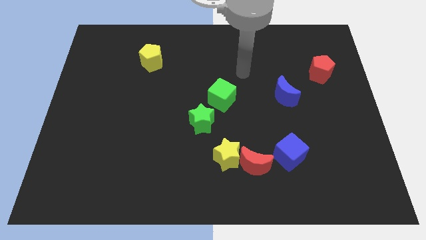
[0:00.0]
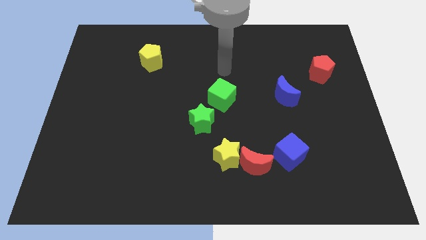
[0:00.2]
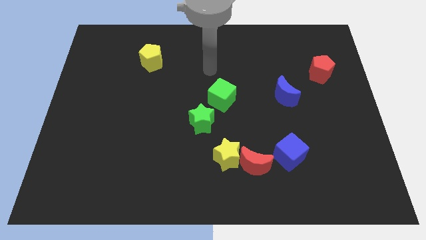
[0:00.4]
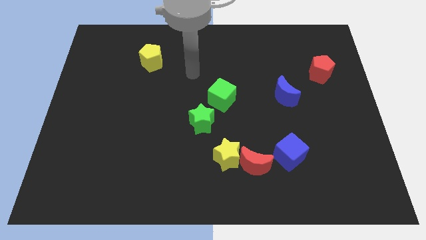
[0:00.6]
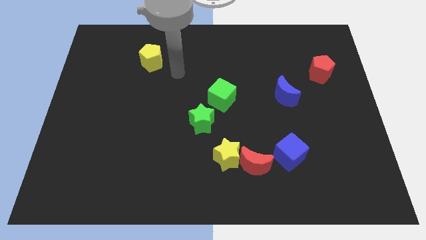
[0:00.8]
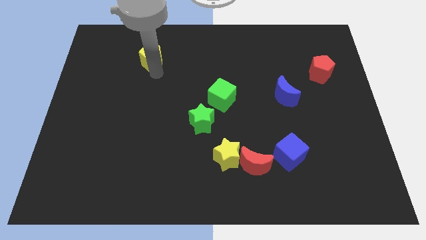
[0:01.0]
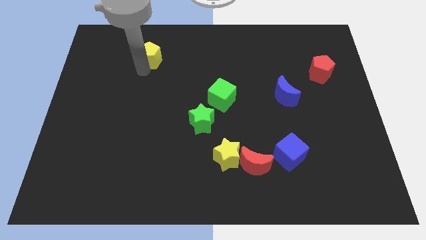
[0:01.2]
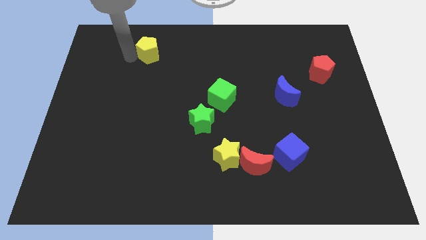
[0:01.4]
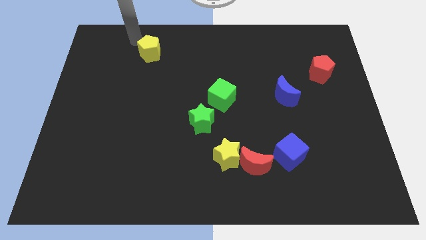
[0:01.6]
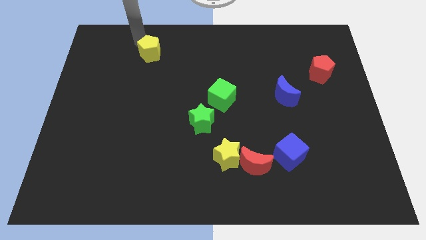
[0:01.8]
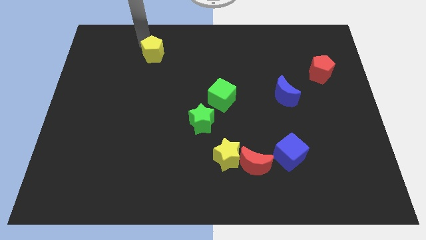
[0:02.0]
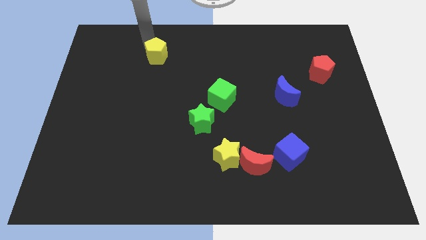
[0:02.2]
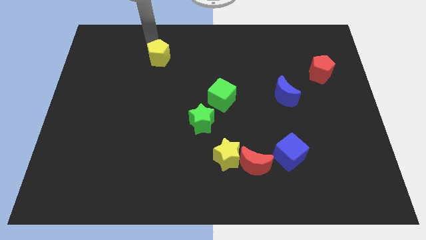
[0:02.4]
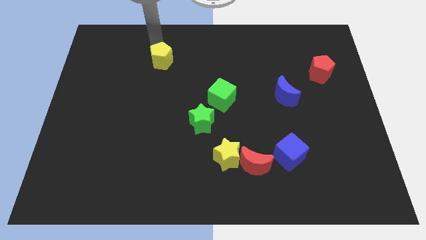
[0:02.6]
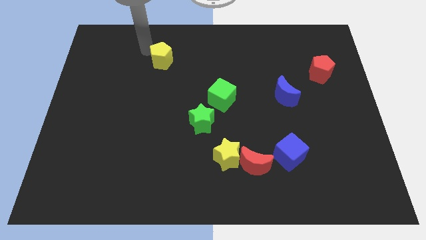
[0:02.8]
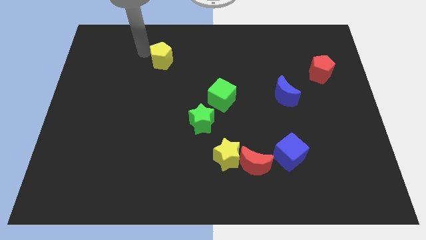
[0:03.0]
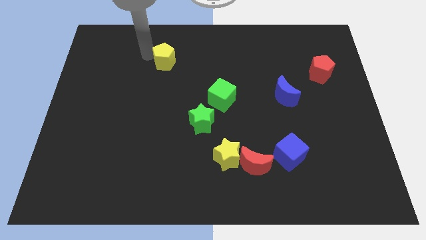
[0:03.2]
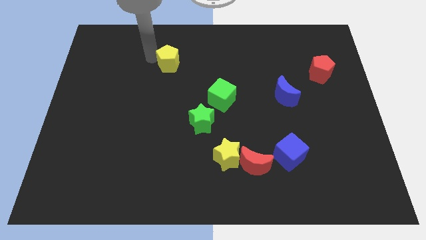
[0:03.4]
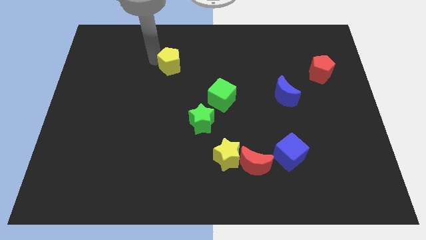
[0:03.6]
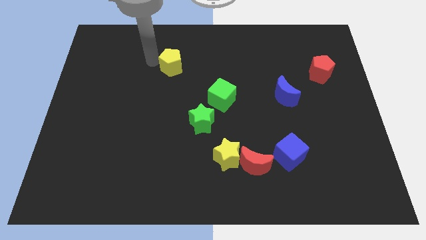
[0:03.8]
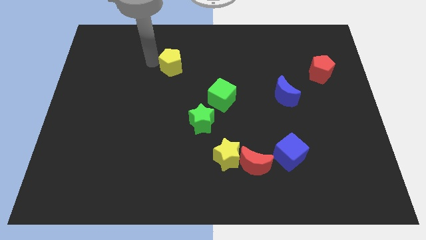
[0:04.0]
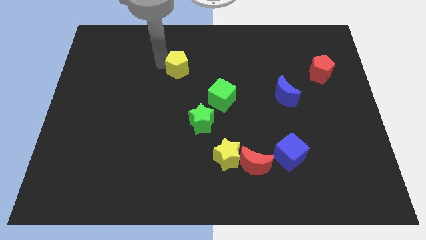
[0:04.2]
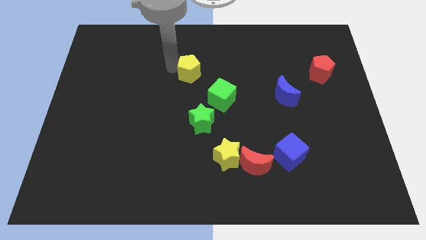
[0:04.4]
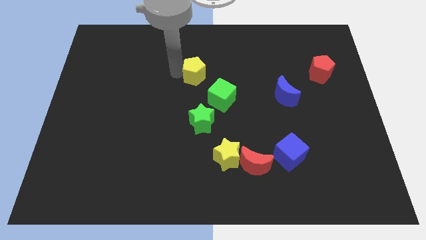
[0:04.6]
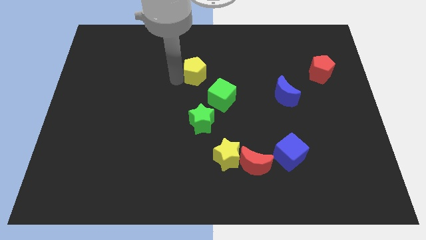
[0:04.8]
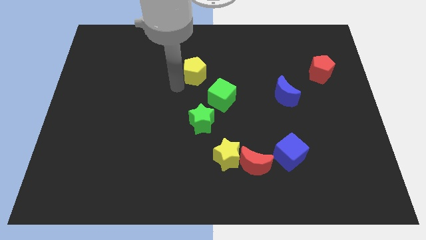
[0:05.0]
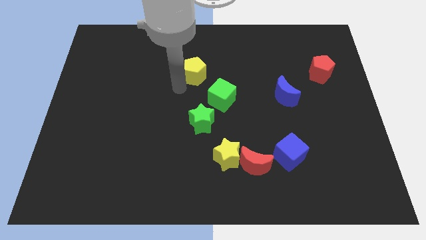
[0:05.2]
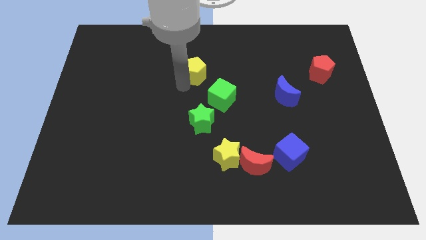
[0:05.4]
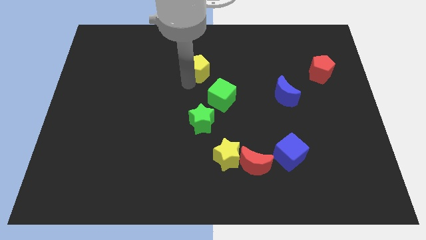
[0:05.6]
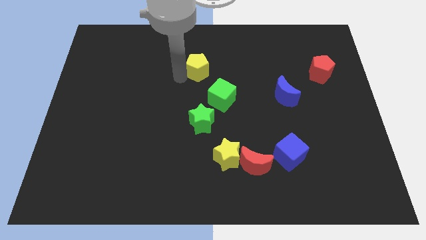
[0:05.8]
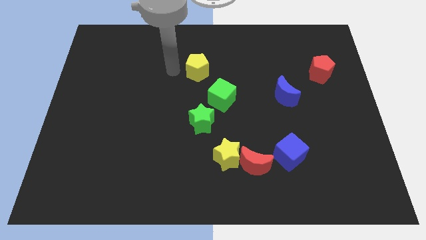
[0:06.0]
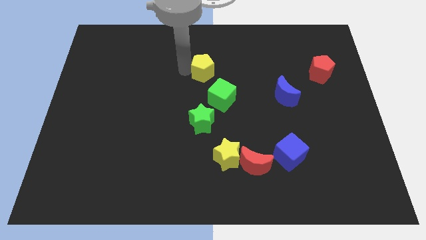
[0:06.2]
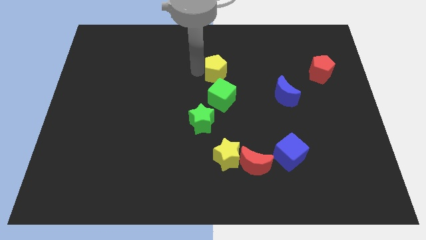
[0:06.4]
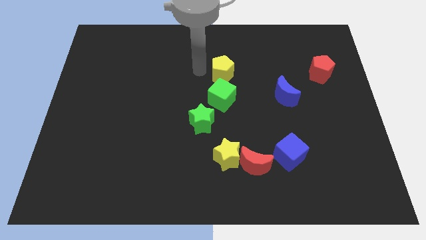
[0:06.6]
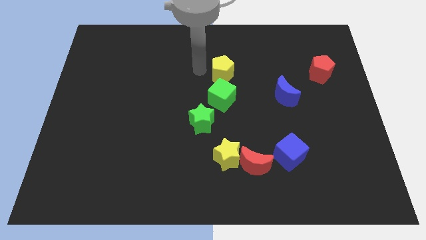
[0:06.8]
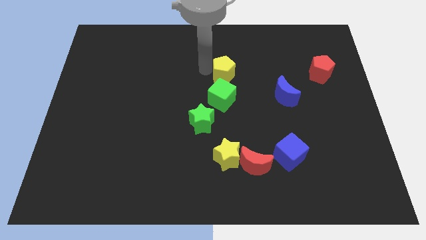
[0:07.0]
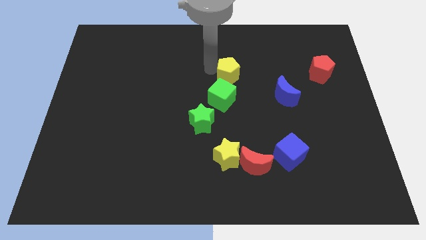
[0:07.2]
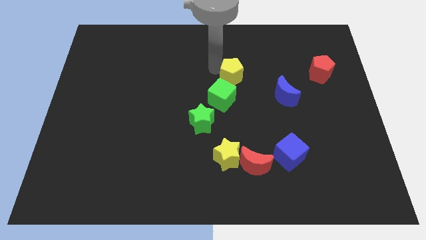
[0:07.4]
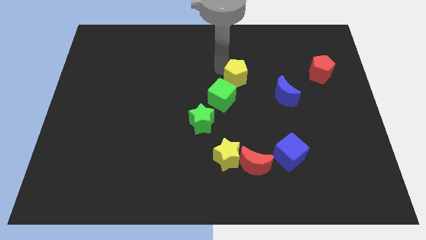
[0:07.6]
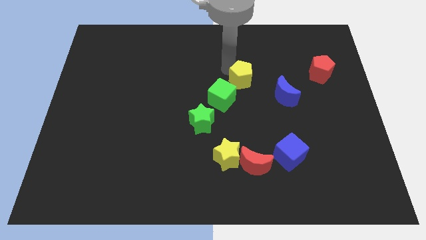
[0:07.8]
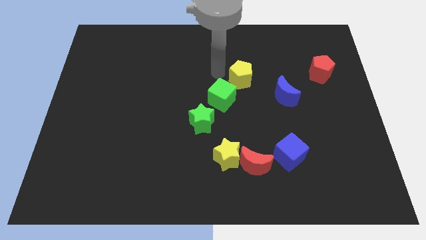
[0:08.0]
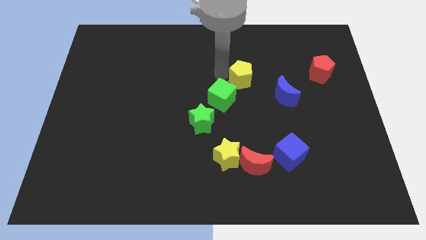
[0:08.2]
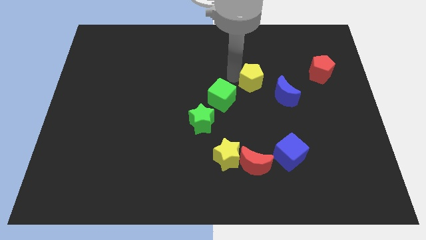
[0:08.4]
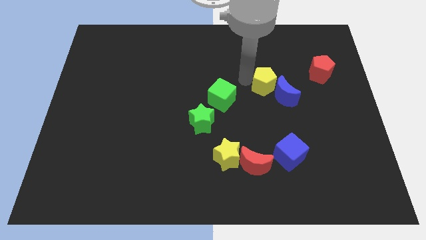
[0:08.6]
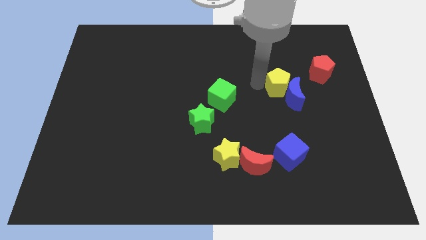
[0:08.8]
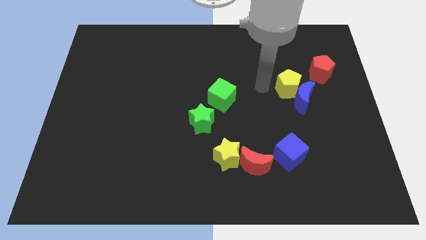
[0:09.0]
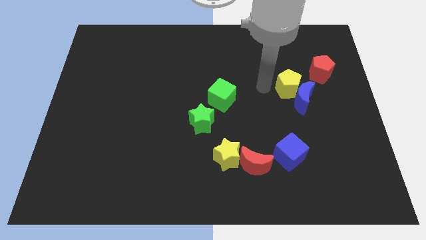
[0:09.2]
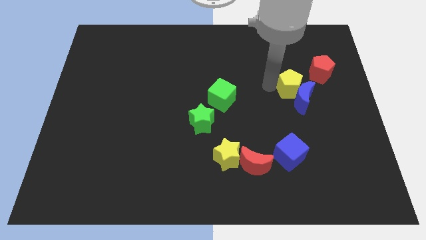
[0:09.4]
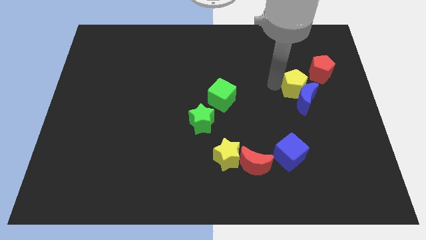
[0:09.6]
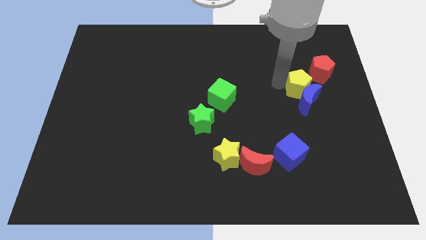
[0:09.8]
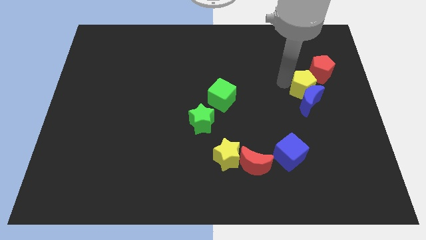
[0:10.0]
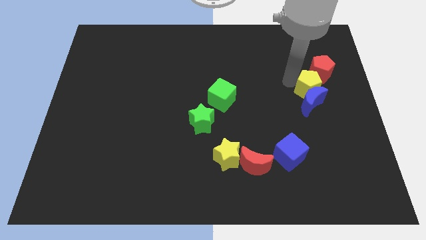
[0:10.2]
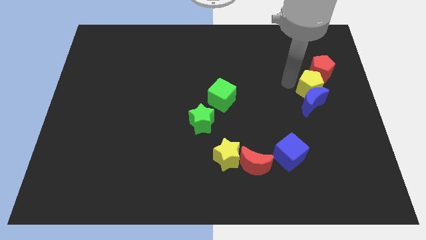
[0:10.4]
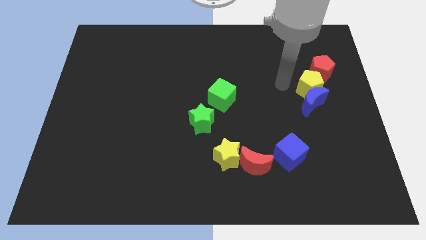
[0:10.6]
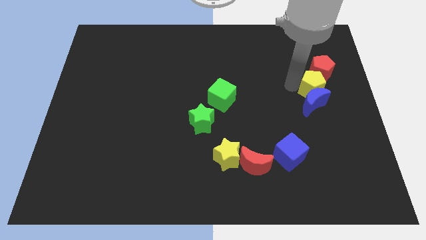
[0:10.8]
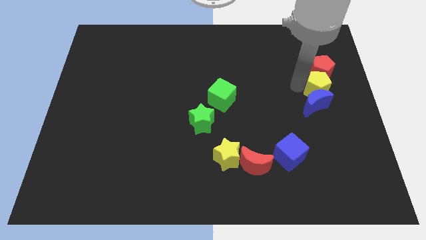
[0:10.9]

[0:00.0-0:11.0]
push the yellow pentagon to the center right

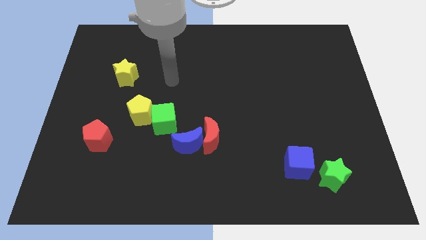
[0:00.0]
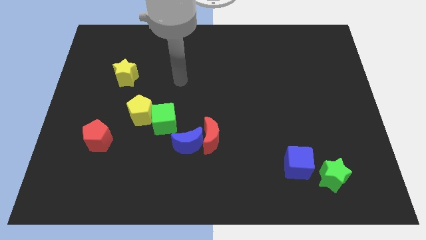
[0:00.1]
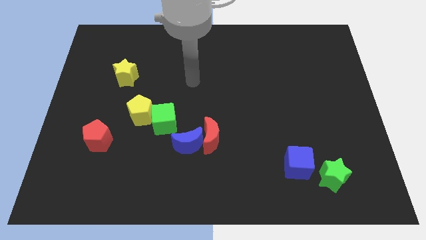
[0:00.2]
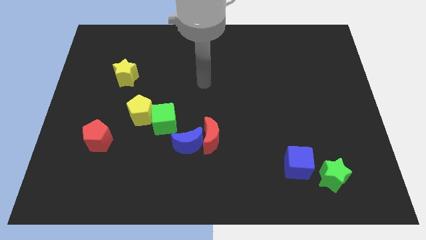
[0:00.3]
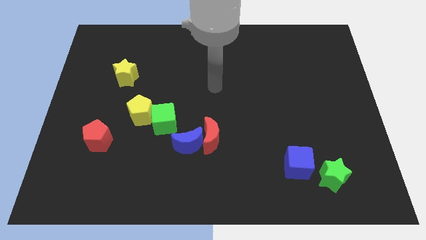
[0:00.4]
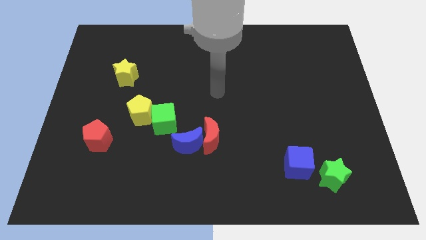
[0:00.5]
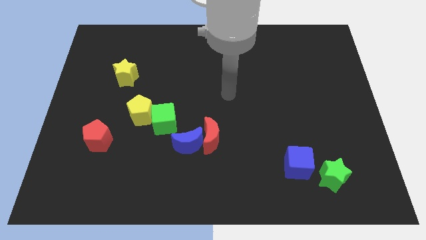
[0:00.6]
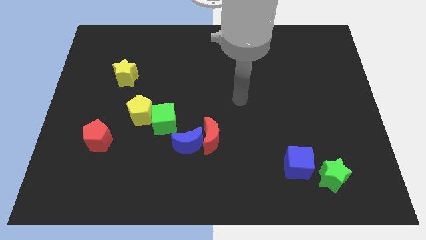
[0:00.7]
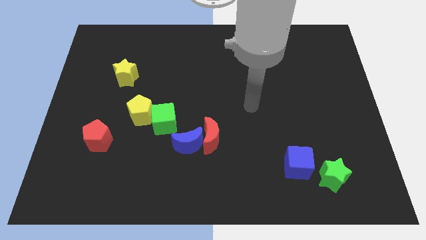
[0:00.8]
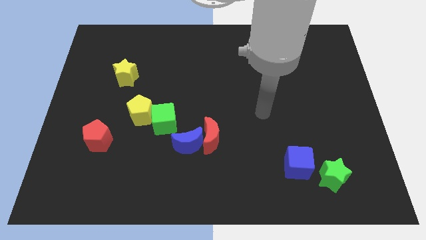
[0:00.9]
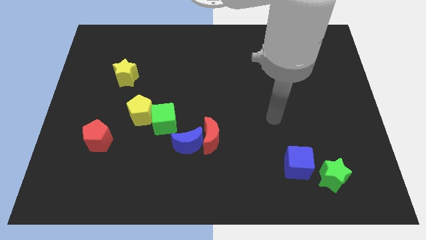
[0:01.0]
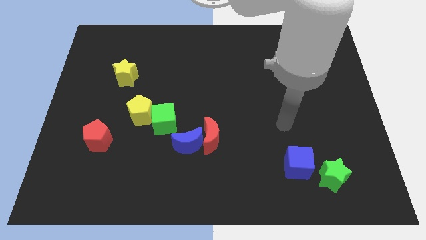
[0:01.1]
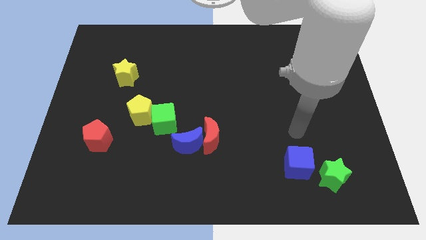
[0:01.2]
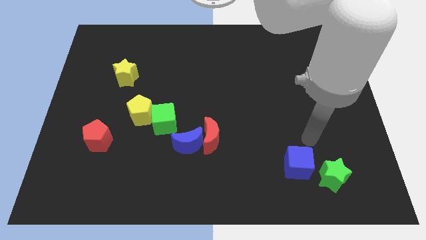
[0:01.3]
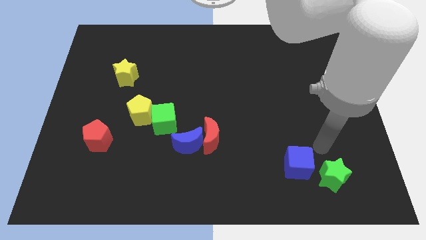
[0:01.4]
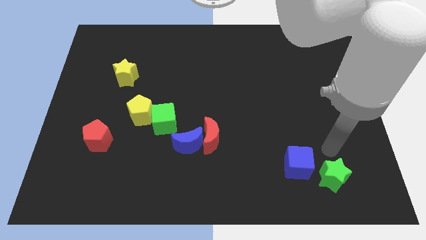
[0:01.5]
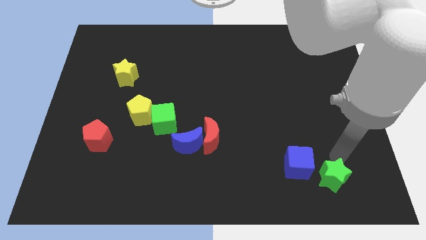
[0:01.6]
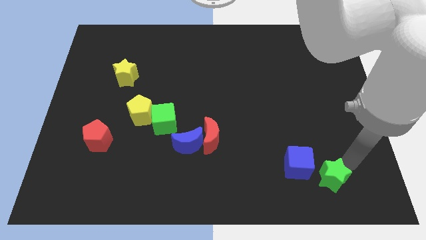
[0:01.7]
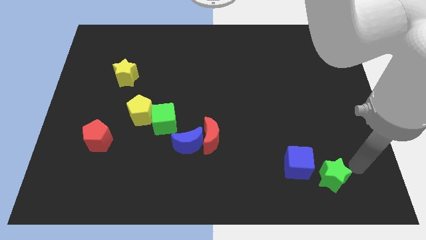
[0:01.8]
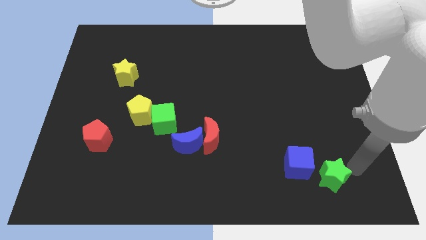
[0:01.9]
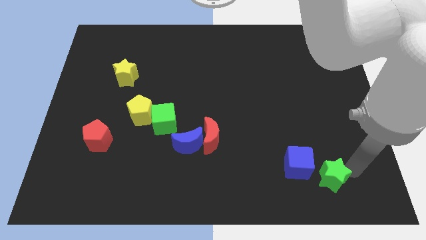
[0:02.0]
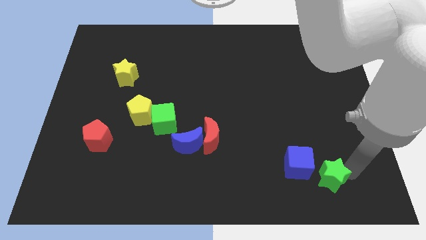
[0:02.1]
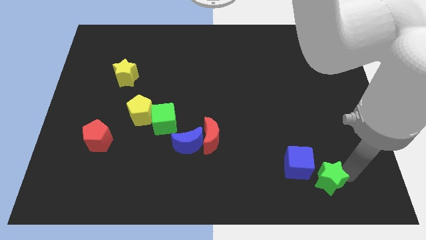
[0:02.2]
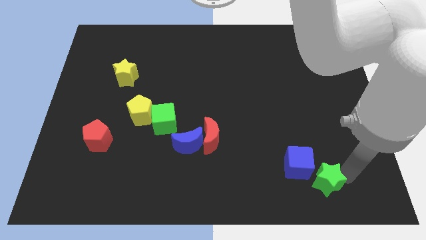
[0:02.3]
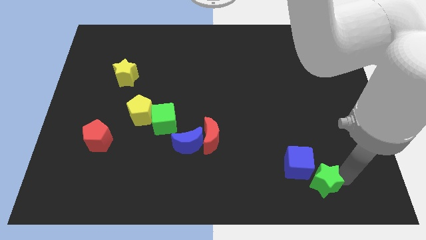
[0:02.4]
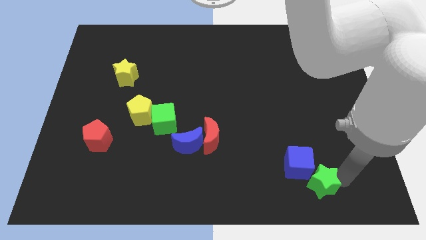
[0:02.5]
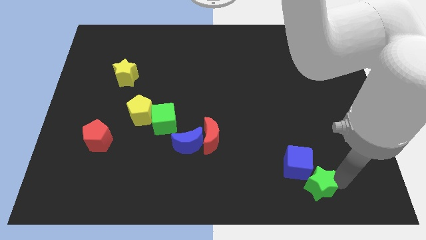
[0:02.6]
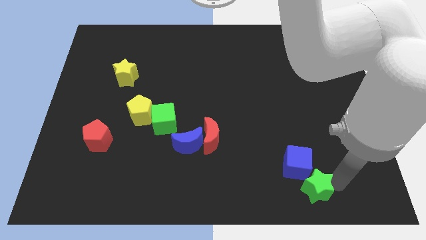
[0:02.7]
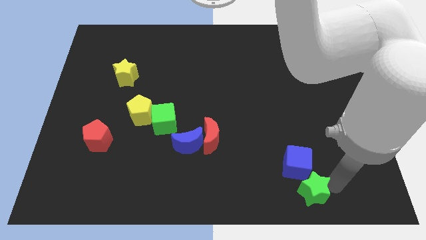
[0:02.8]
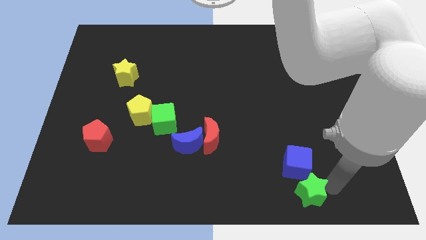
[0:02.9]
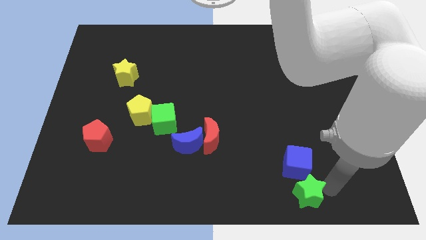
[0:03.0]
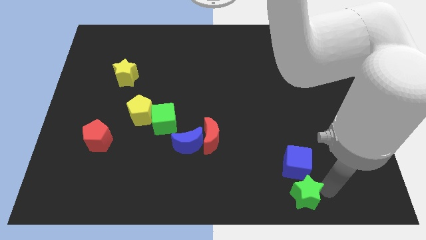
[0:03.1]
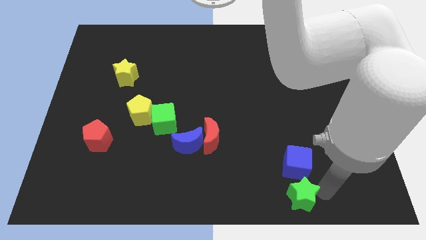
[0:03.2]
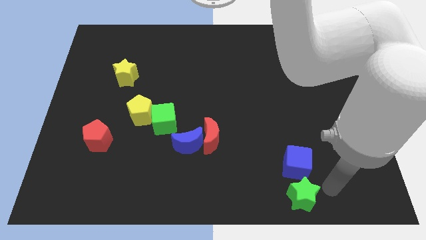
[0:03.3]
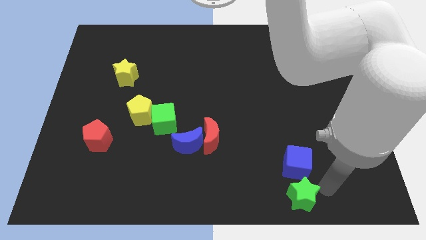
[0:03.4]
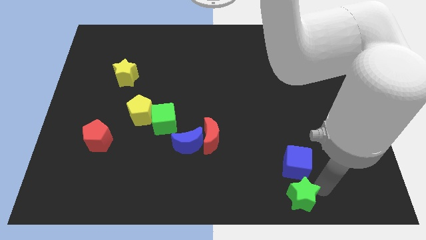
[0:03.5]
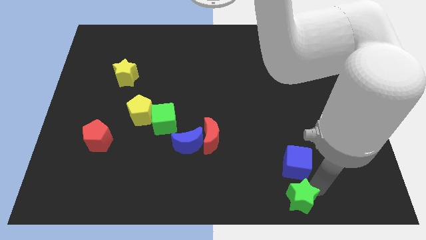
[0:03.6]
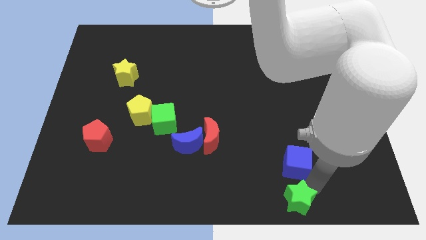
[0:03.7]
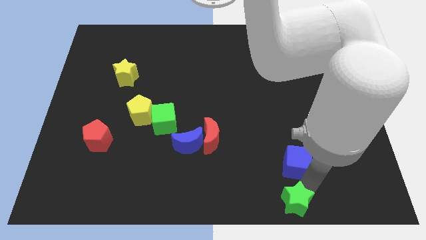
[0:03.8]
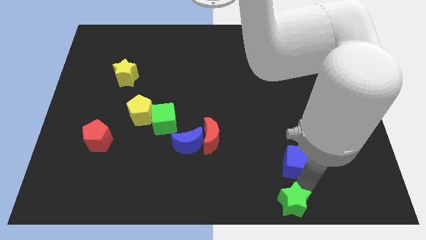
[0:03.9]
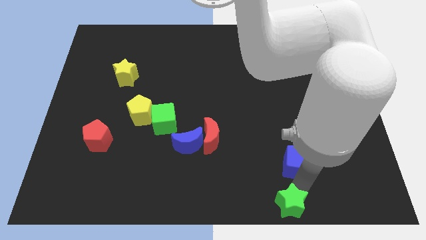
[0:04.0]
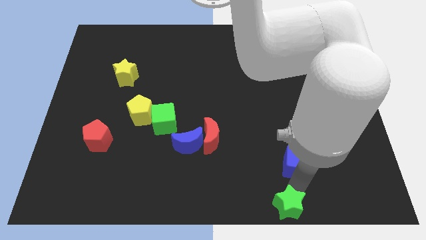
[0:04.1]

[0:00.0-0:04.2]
move the green star to the bottom
